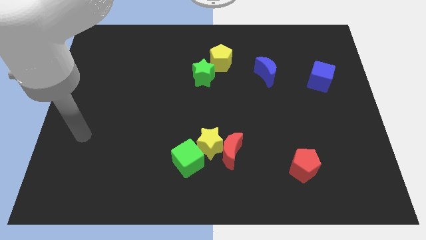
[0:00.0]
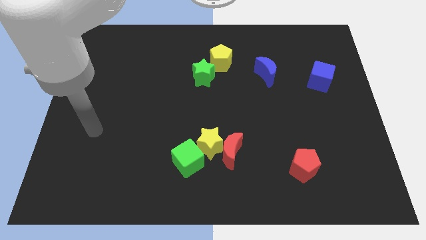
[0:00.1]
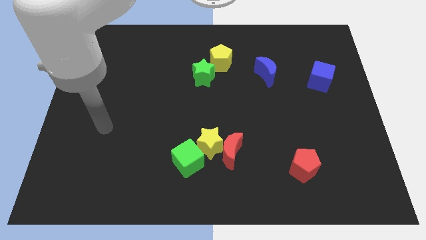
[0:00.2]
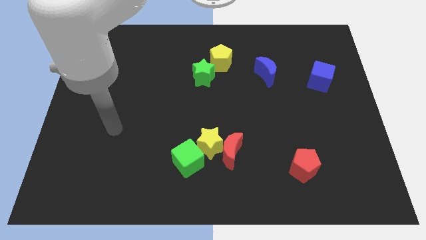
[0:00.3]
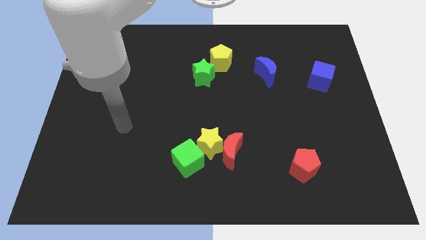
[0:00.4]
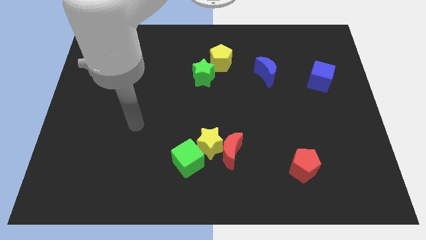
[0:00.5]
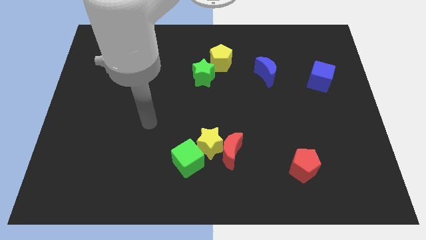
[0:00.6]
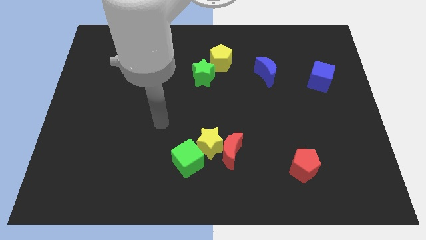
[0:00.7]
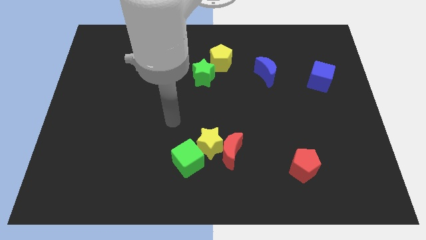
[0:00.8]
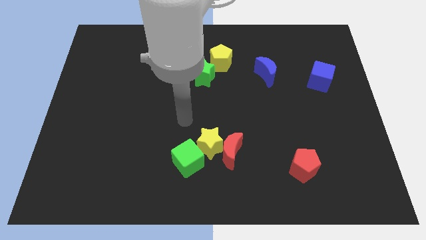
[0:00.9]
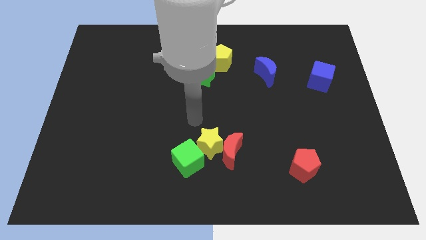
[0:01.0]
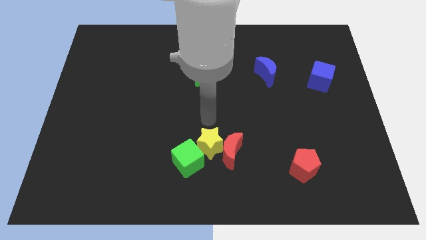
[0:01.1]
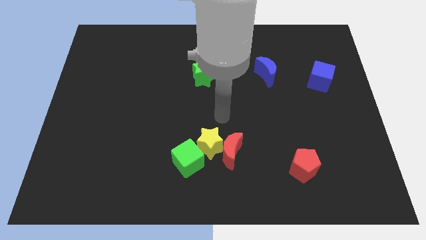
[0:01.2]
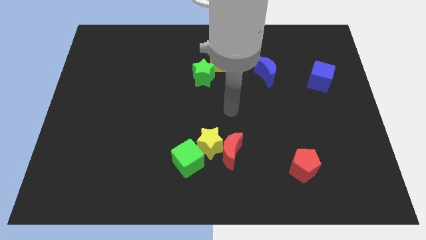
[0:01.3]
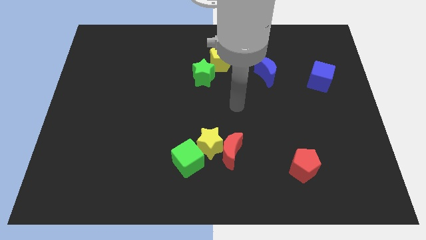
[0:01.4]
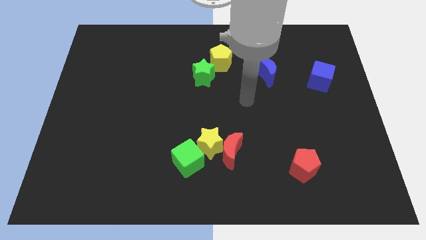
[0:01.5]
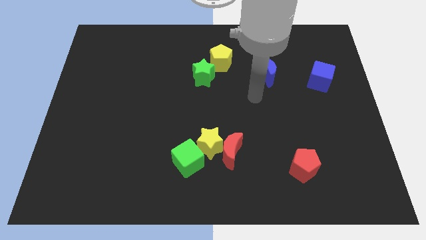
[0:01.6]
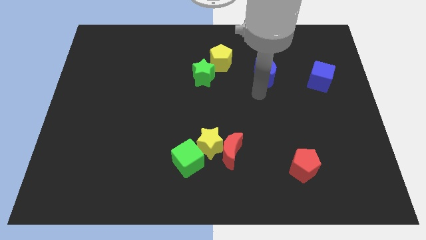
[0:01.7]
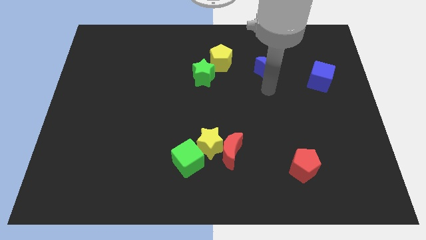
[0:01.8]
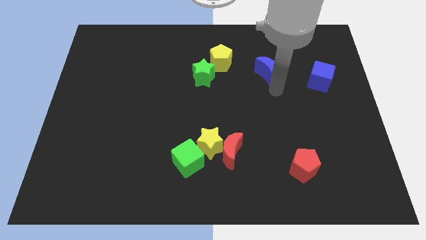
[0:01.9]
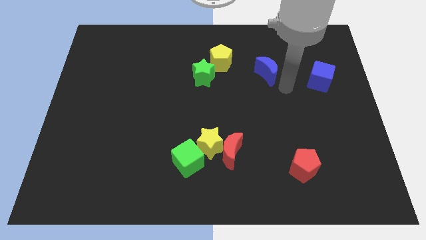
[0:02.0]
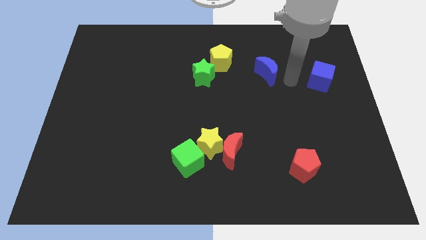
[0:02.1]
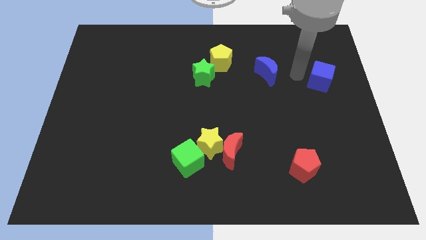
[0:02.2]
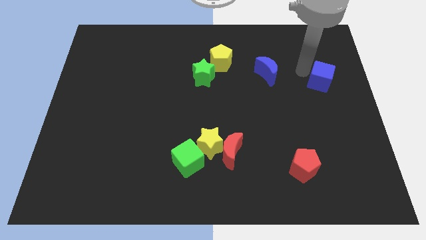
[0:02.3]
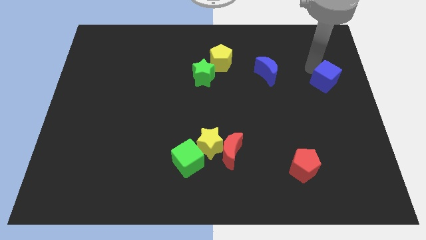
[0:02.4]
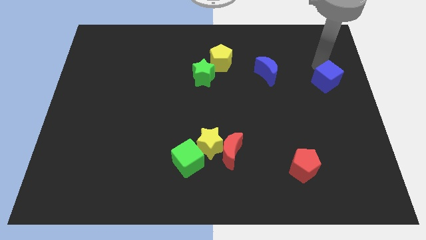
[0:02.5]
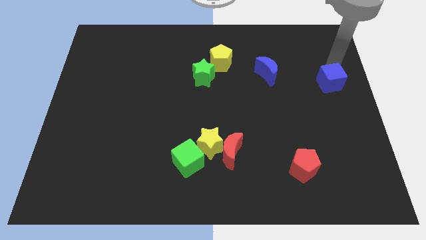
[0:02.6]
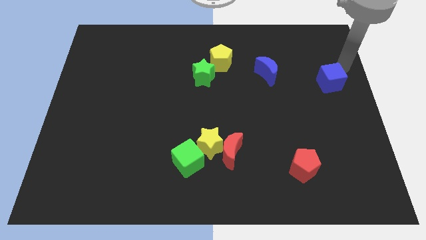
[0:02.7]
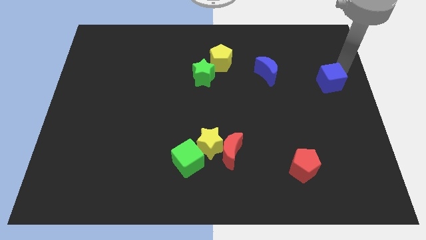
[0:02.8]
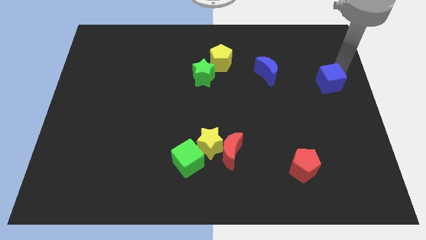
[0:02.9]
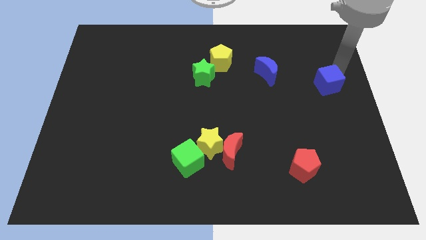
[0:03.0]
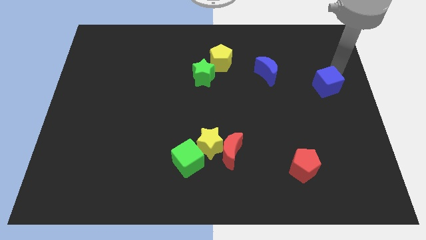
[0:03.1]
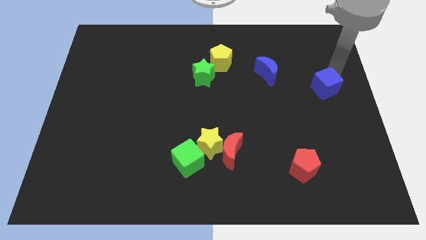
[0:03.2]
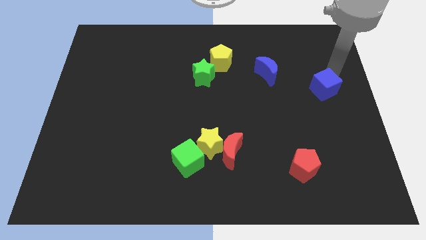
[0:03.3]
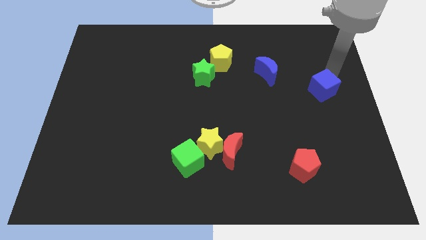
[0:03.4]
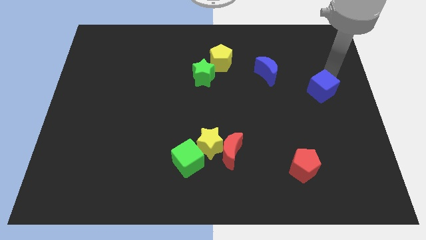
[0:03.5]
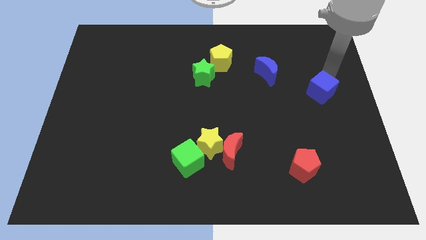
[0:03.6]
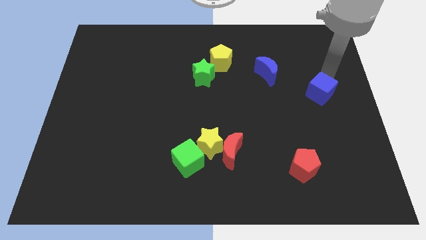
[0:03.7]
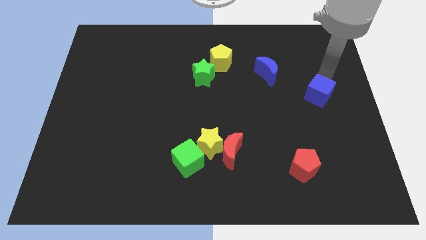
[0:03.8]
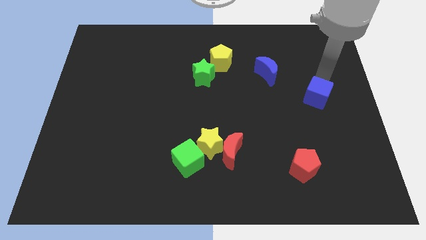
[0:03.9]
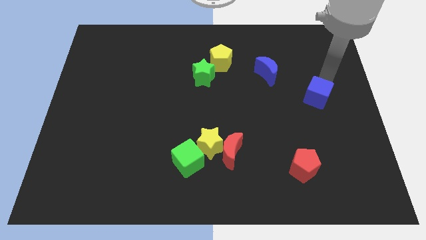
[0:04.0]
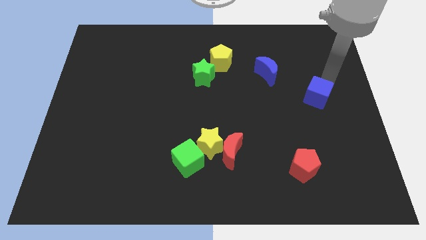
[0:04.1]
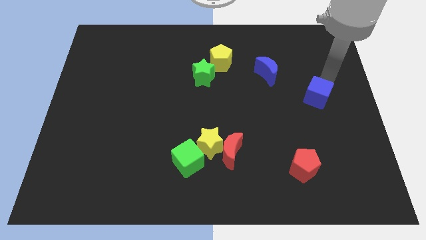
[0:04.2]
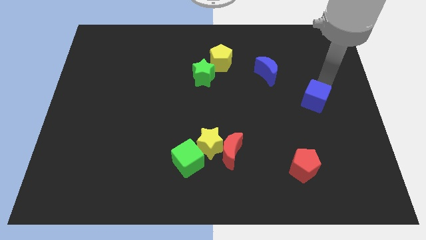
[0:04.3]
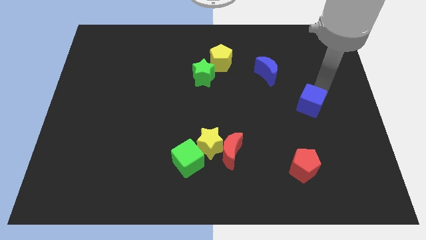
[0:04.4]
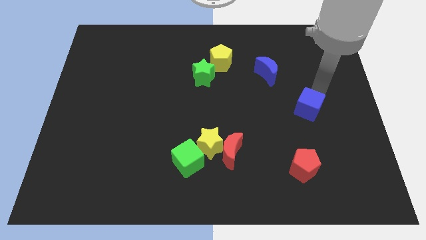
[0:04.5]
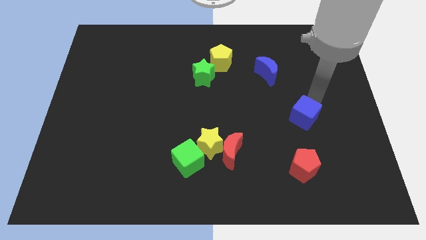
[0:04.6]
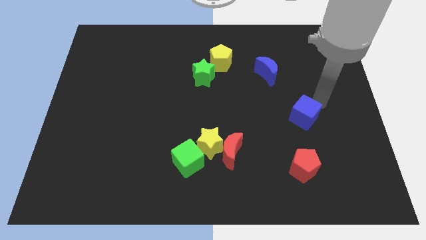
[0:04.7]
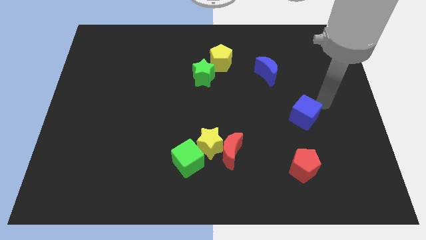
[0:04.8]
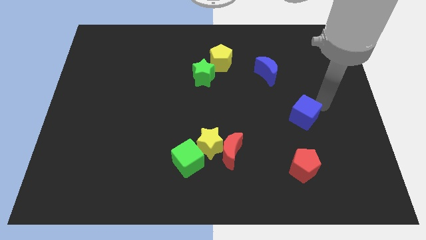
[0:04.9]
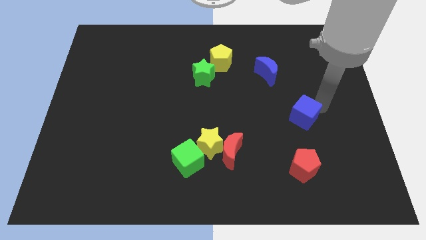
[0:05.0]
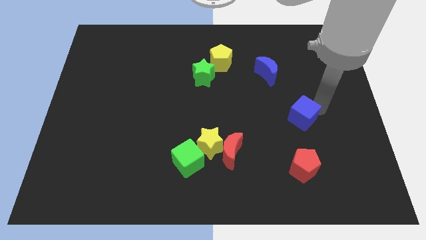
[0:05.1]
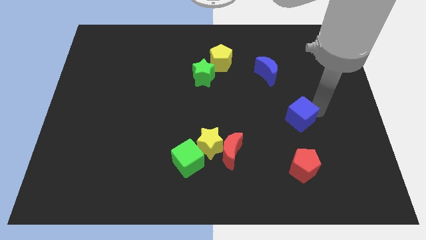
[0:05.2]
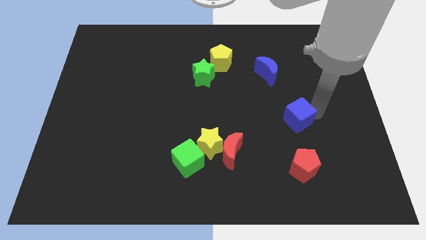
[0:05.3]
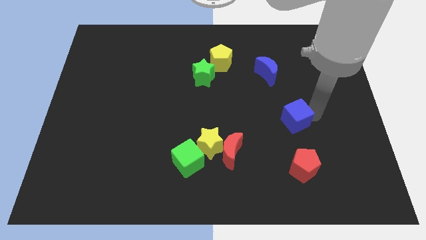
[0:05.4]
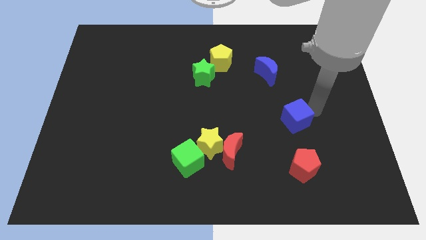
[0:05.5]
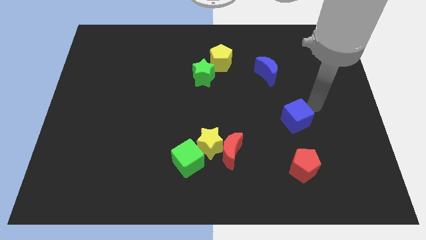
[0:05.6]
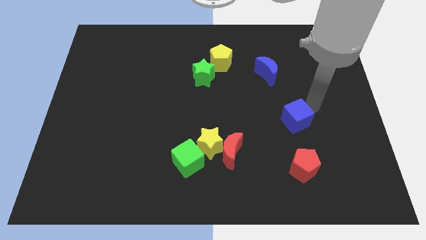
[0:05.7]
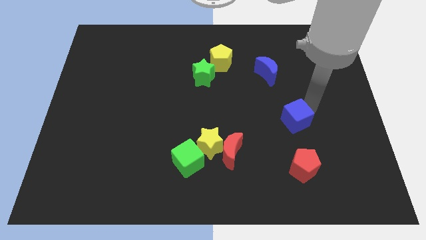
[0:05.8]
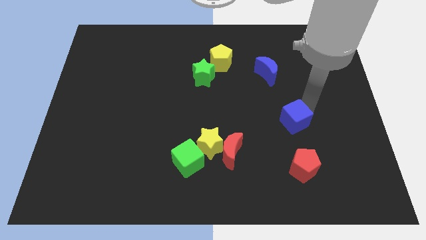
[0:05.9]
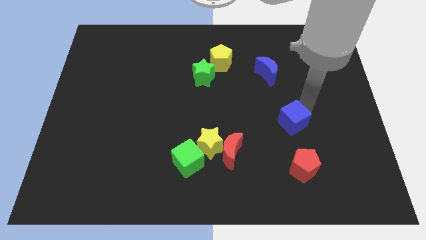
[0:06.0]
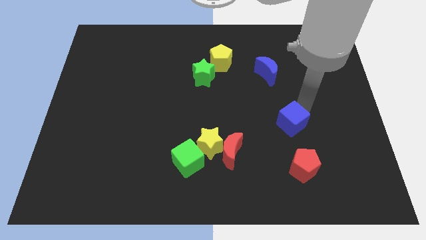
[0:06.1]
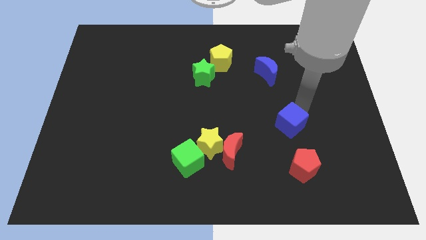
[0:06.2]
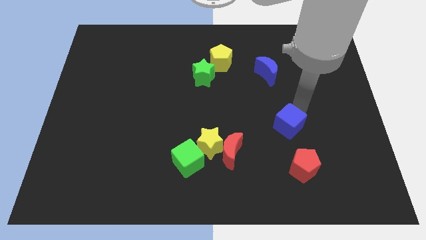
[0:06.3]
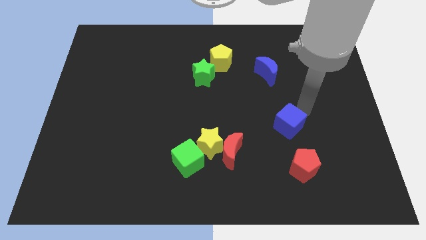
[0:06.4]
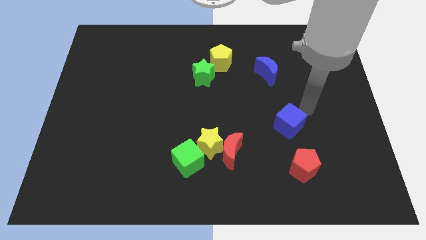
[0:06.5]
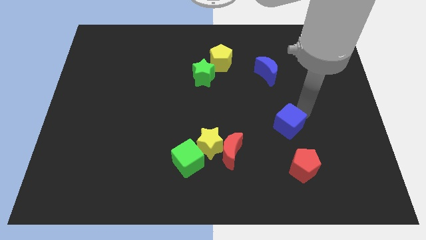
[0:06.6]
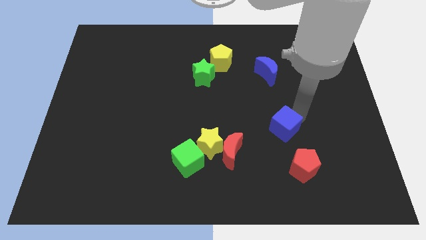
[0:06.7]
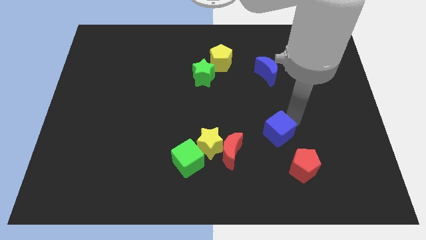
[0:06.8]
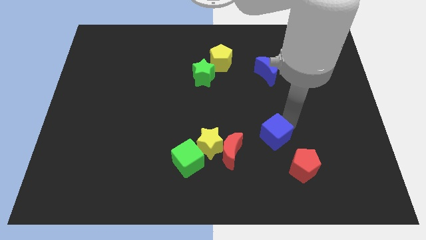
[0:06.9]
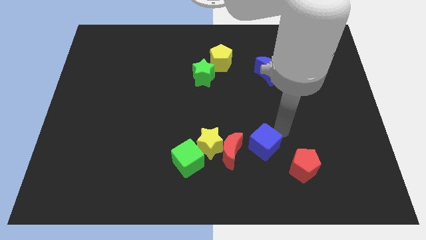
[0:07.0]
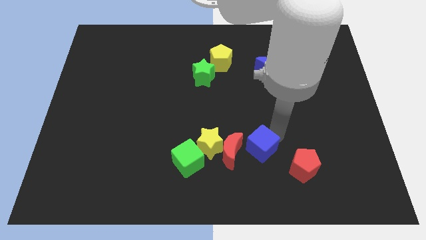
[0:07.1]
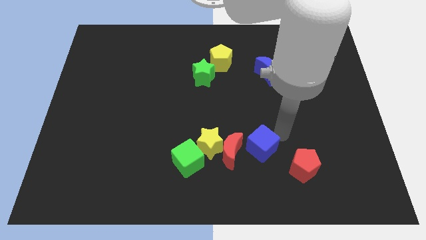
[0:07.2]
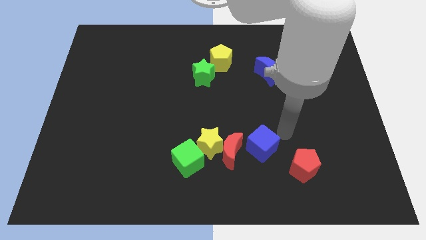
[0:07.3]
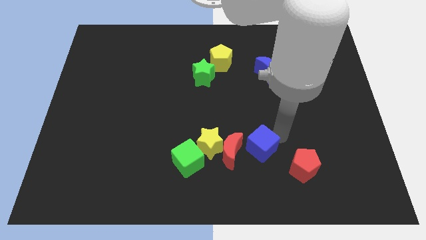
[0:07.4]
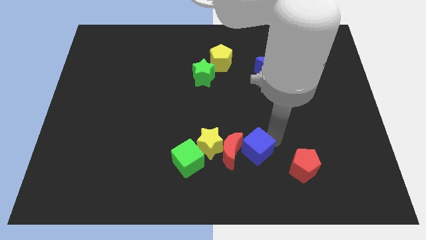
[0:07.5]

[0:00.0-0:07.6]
move the blue cube just right of the green cube
